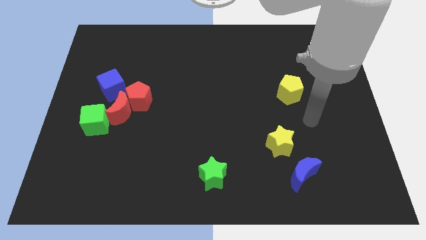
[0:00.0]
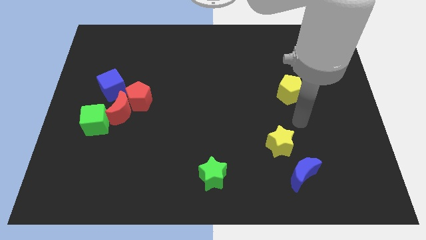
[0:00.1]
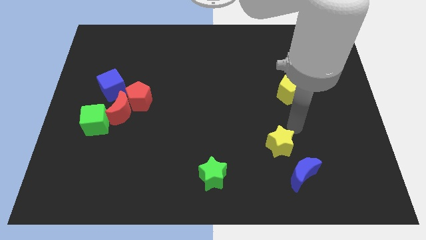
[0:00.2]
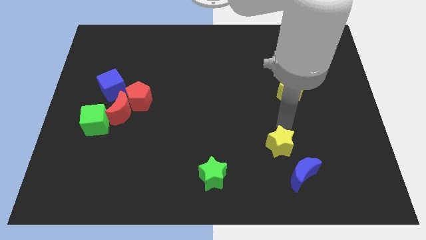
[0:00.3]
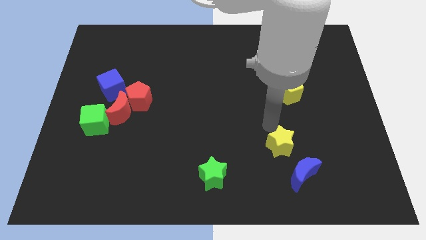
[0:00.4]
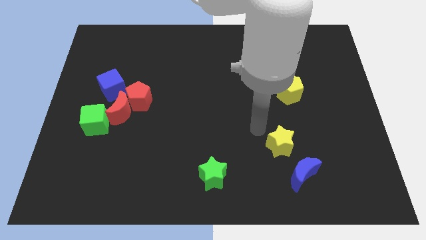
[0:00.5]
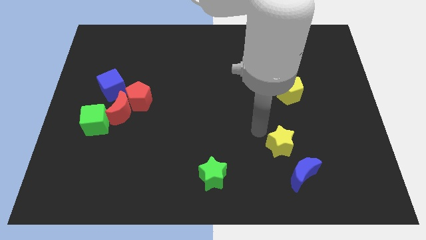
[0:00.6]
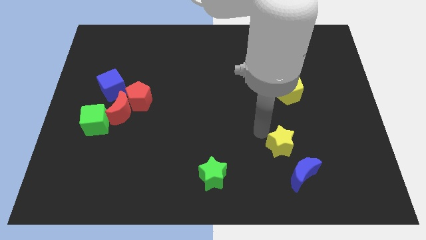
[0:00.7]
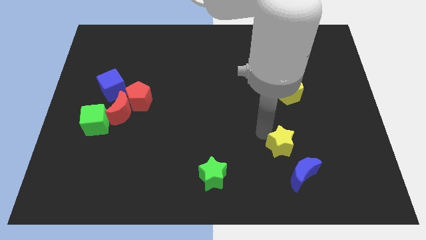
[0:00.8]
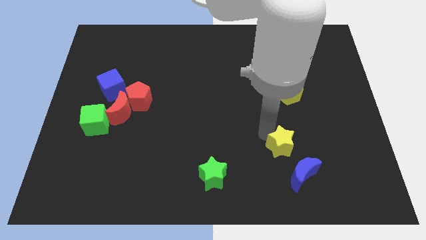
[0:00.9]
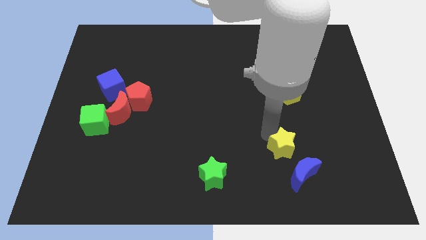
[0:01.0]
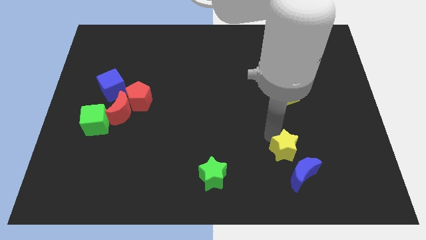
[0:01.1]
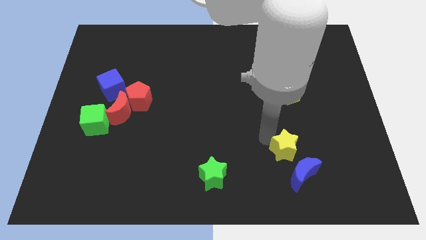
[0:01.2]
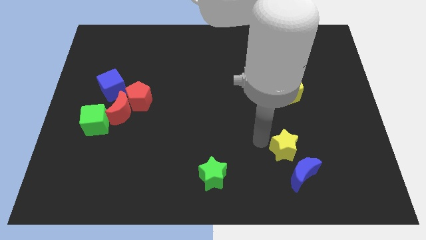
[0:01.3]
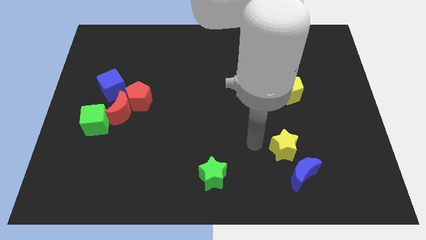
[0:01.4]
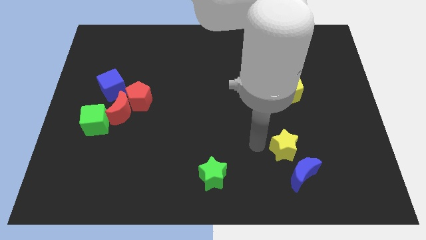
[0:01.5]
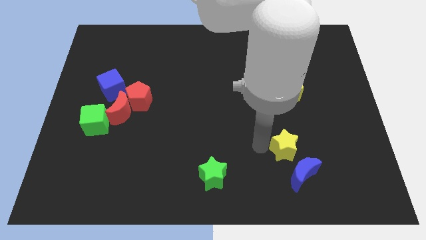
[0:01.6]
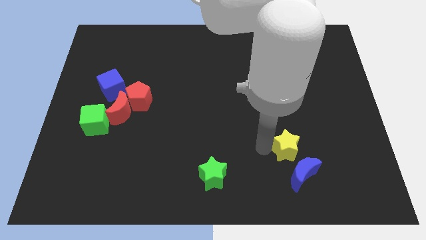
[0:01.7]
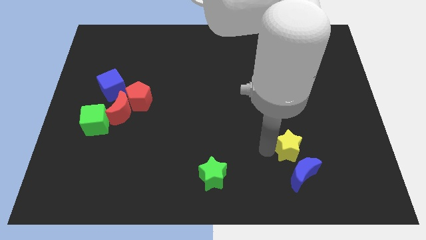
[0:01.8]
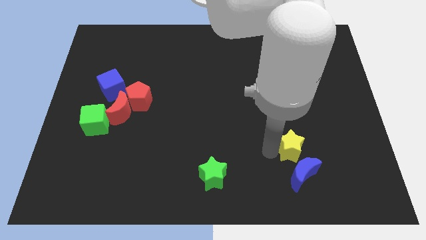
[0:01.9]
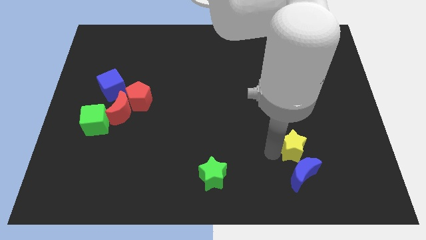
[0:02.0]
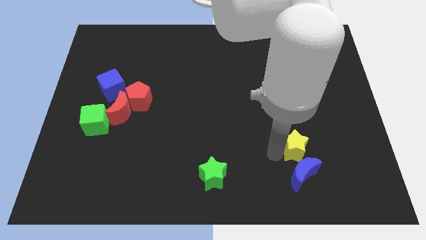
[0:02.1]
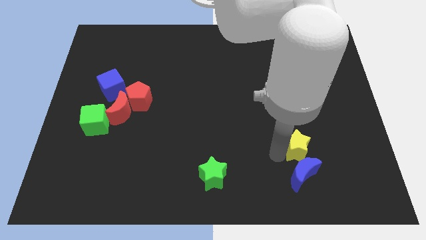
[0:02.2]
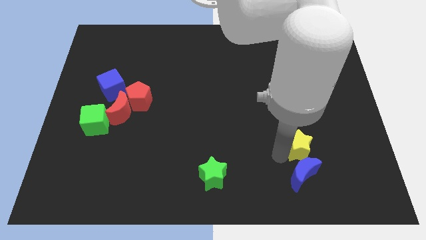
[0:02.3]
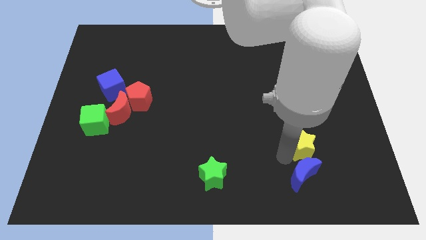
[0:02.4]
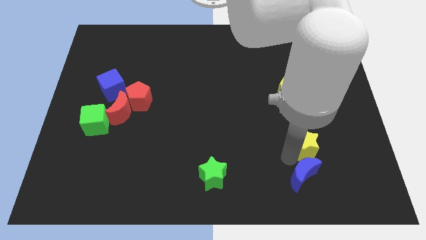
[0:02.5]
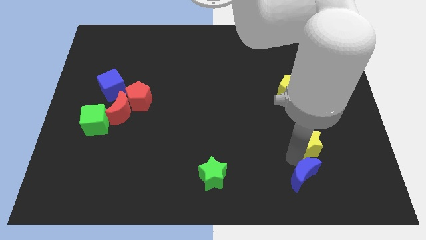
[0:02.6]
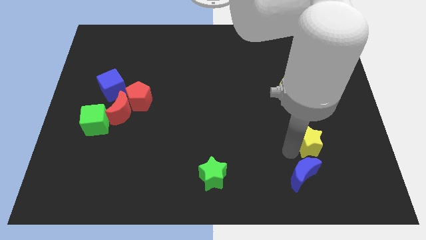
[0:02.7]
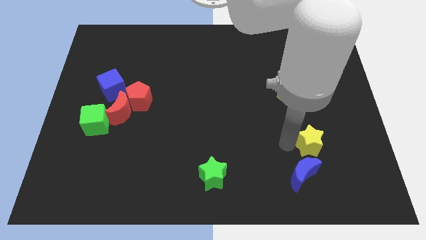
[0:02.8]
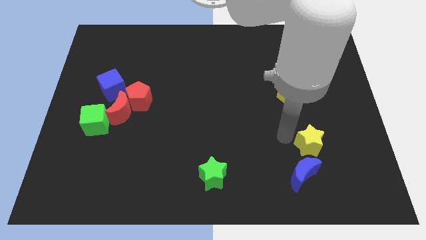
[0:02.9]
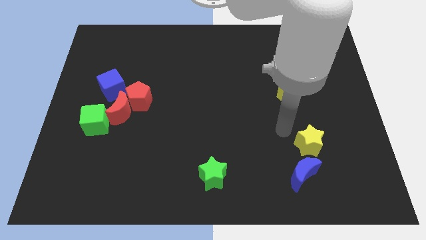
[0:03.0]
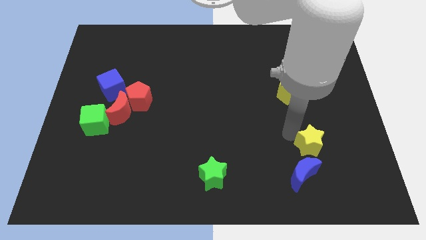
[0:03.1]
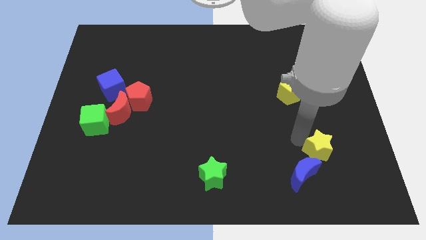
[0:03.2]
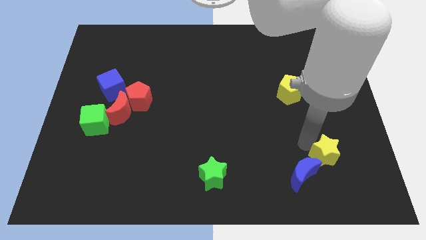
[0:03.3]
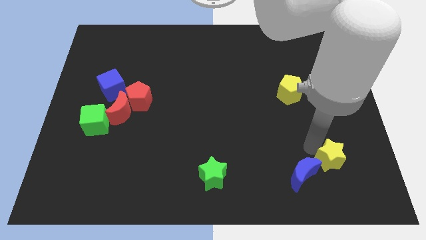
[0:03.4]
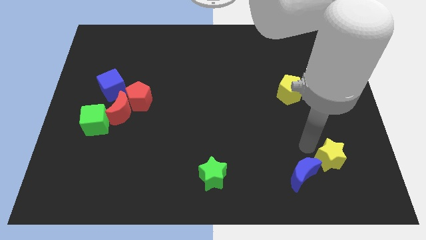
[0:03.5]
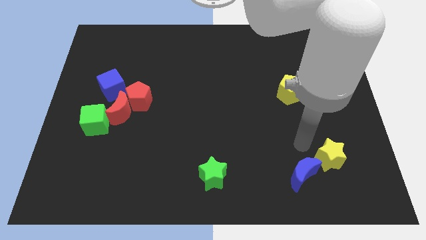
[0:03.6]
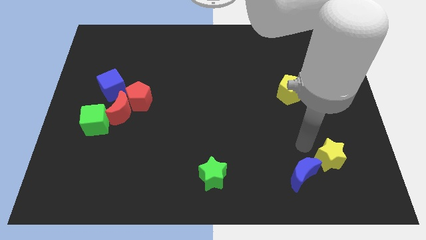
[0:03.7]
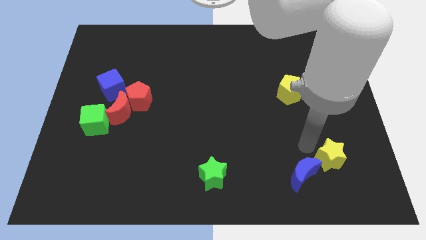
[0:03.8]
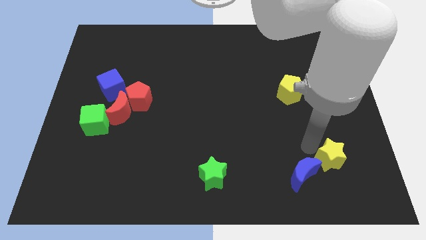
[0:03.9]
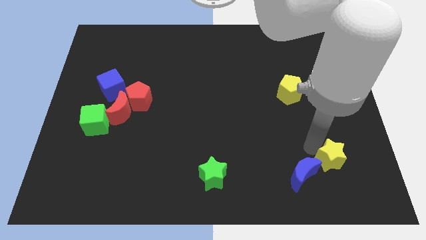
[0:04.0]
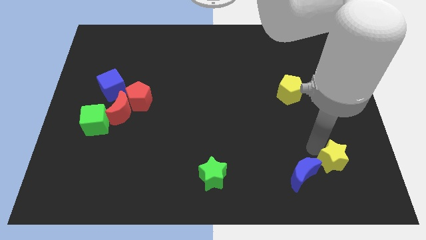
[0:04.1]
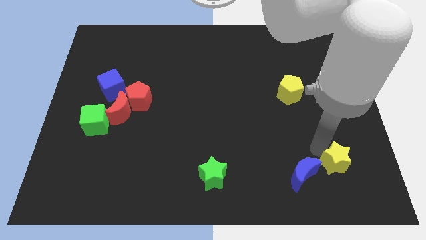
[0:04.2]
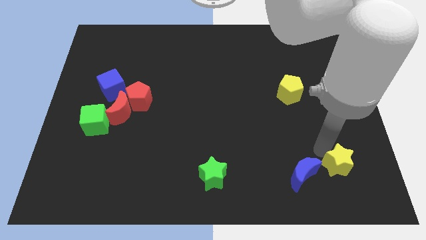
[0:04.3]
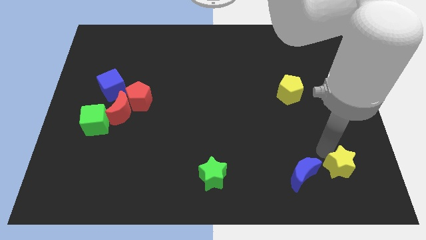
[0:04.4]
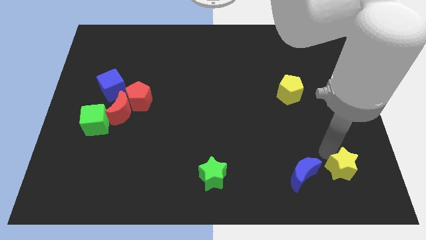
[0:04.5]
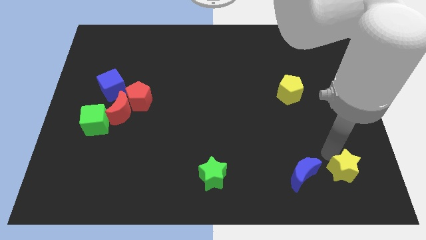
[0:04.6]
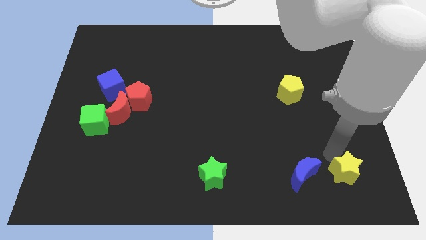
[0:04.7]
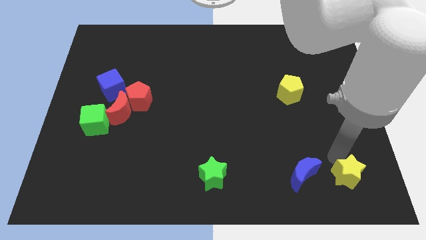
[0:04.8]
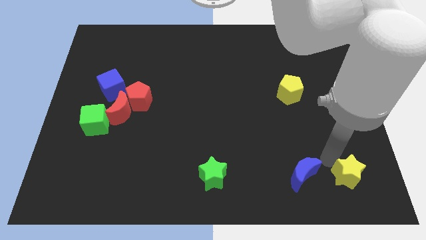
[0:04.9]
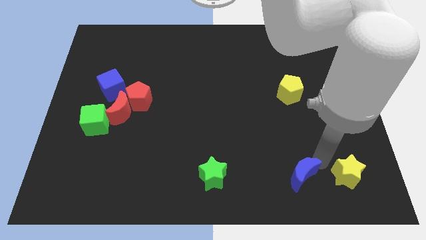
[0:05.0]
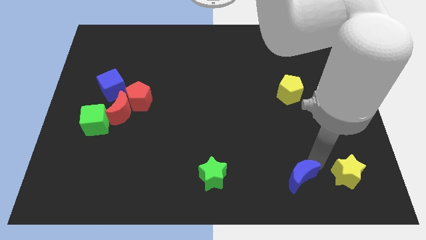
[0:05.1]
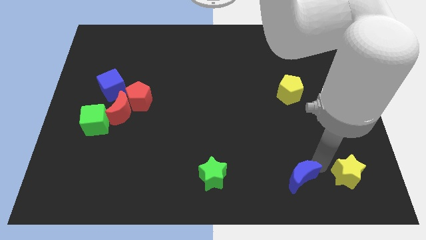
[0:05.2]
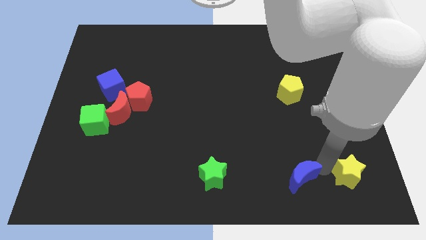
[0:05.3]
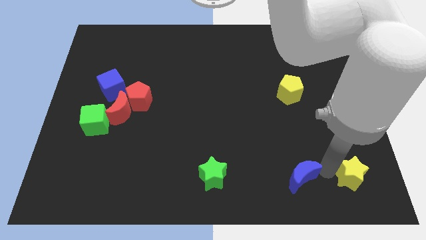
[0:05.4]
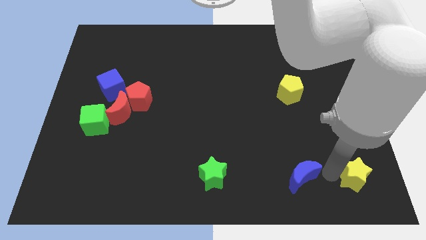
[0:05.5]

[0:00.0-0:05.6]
slide the yellow star to the bottom right corner

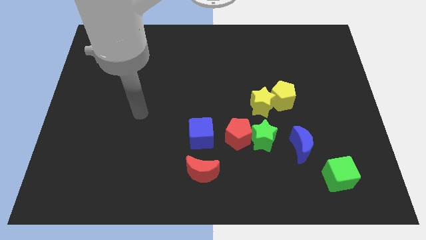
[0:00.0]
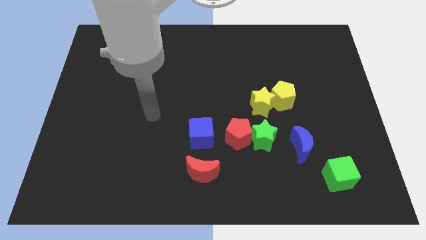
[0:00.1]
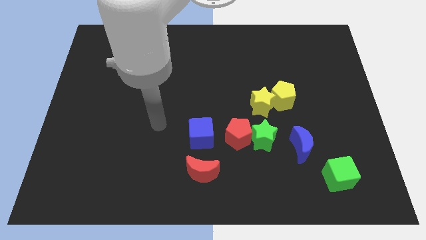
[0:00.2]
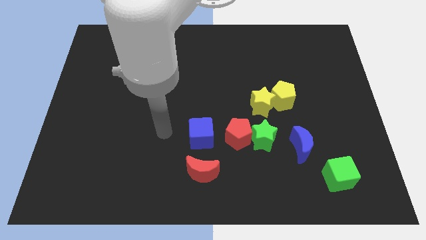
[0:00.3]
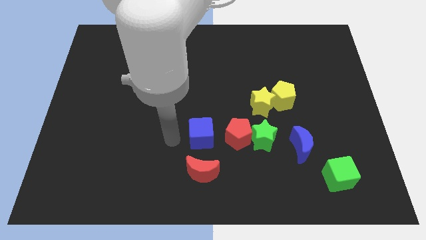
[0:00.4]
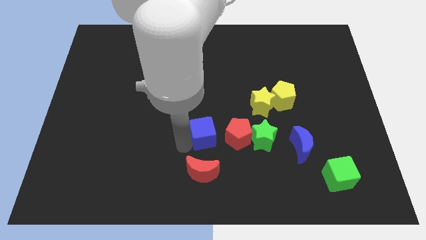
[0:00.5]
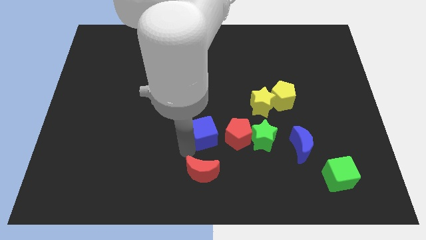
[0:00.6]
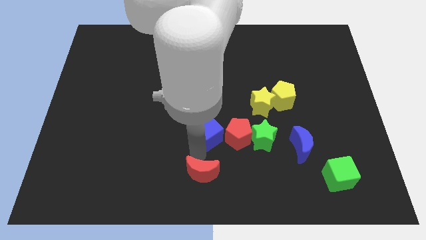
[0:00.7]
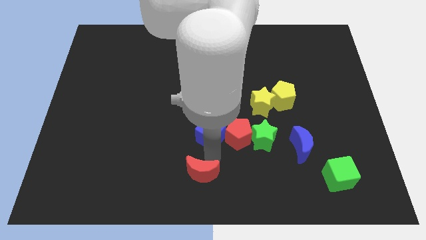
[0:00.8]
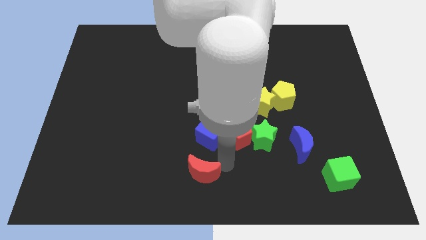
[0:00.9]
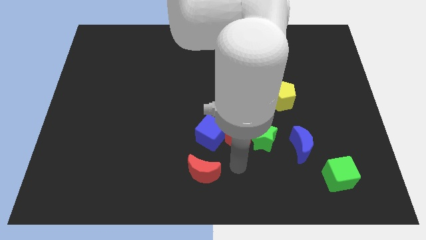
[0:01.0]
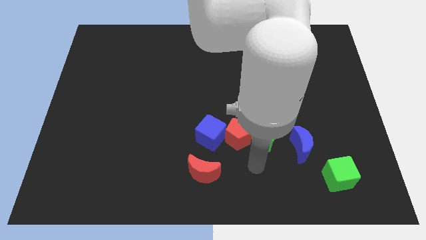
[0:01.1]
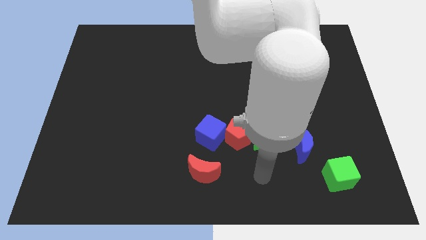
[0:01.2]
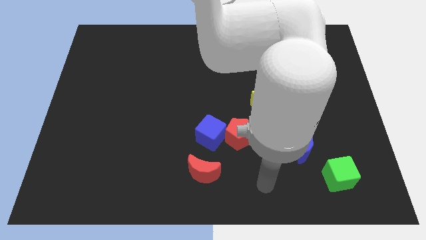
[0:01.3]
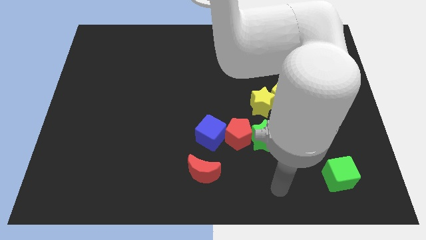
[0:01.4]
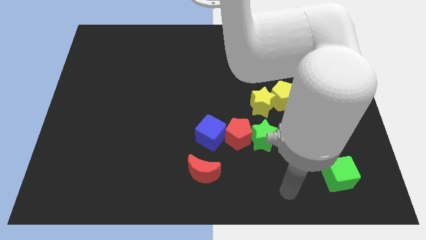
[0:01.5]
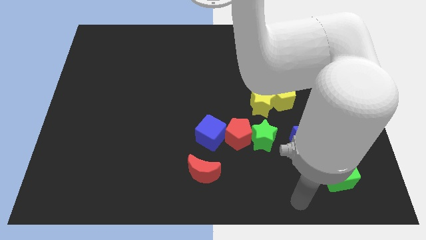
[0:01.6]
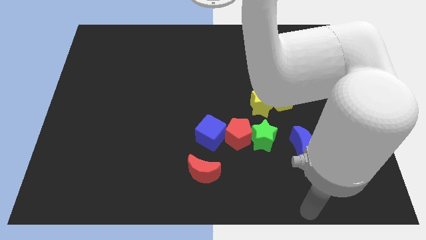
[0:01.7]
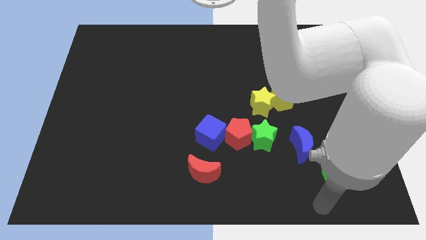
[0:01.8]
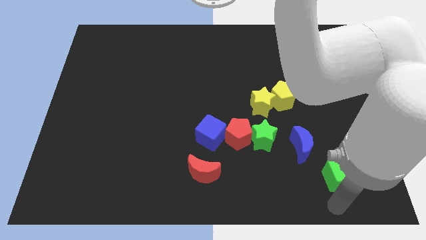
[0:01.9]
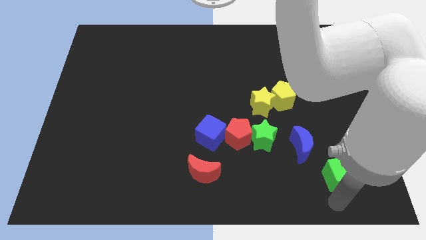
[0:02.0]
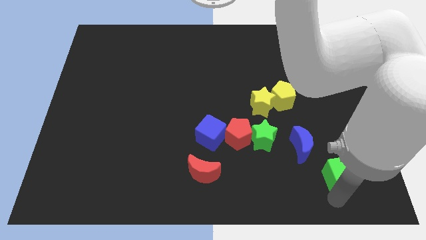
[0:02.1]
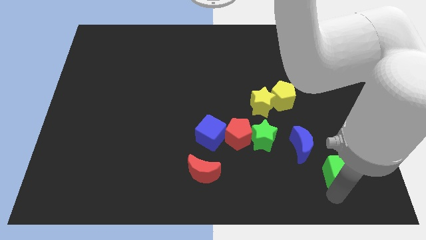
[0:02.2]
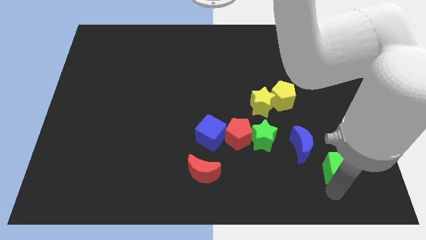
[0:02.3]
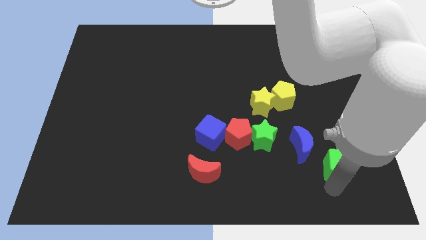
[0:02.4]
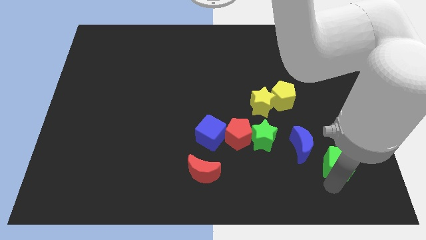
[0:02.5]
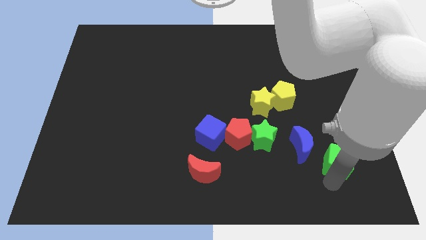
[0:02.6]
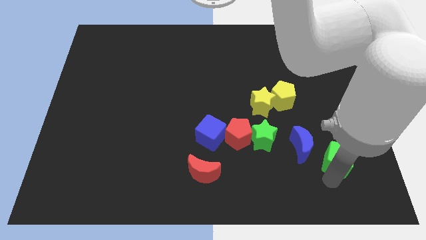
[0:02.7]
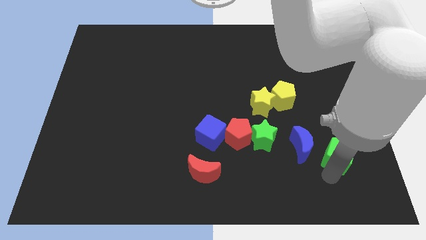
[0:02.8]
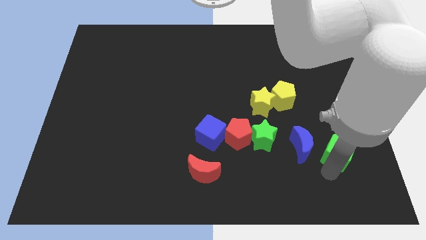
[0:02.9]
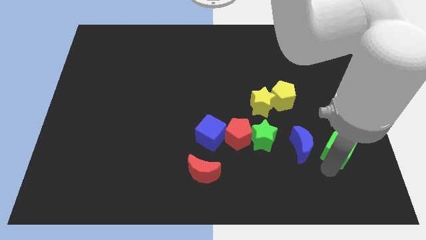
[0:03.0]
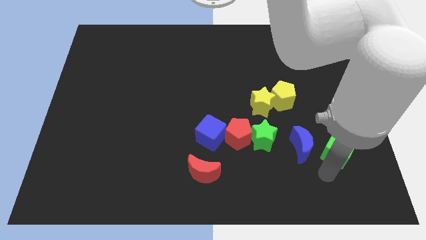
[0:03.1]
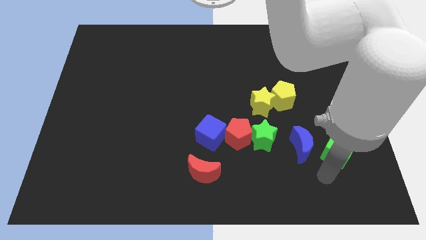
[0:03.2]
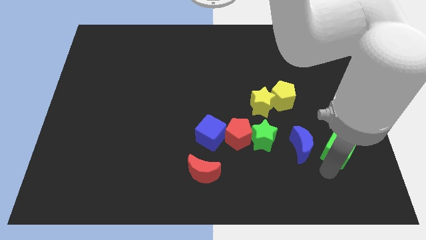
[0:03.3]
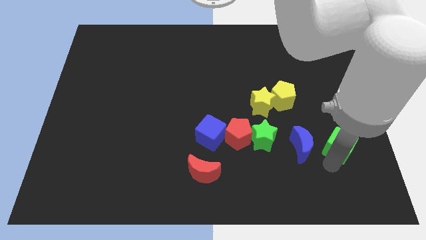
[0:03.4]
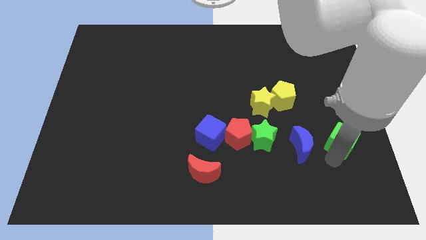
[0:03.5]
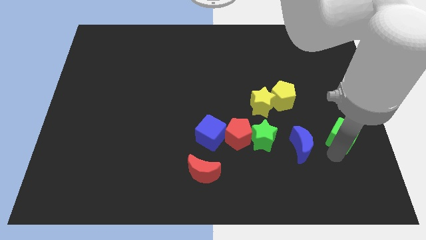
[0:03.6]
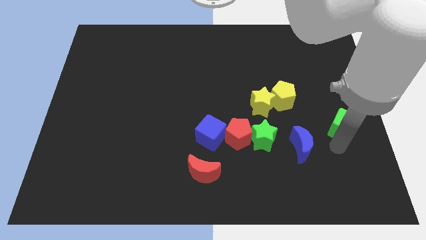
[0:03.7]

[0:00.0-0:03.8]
move the green cube to the right side
